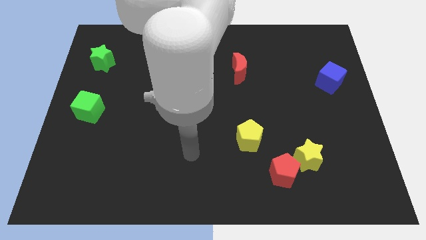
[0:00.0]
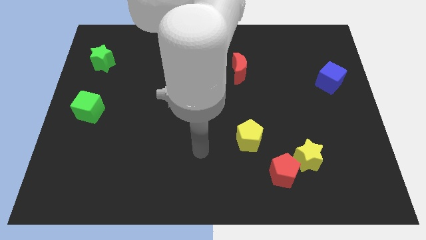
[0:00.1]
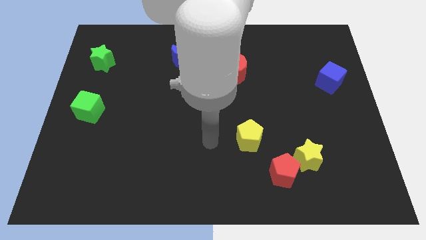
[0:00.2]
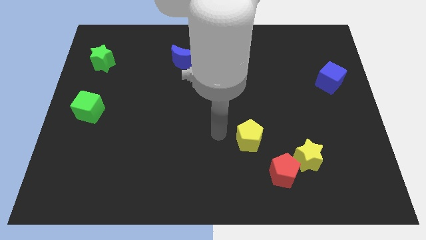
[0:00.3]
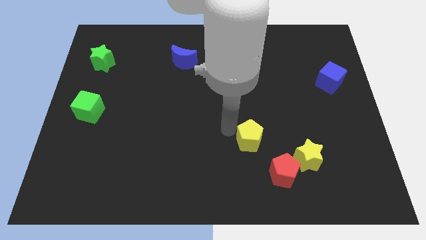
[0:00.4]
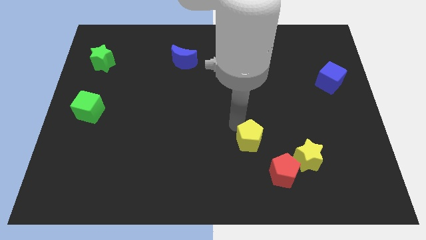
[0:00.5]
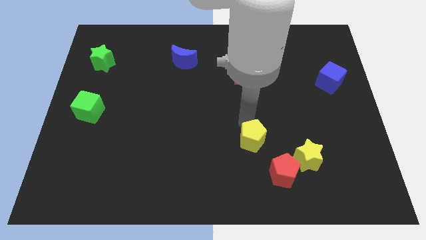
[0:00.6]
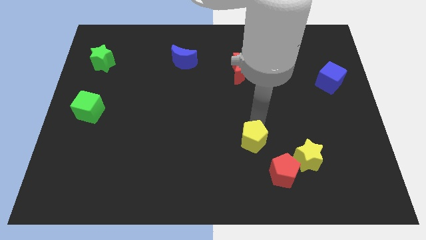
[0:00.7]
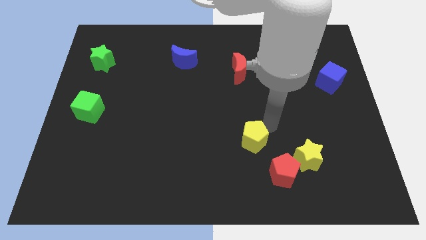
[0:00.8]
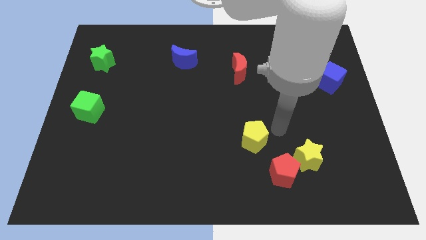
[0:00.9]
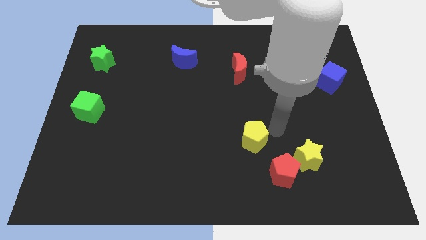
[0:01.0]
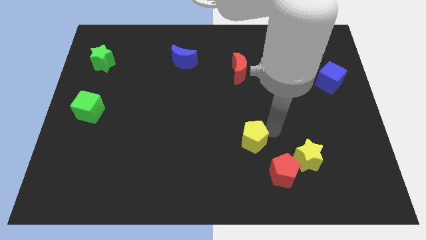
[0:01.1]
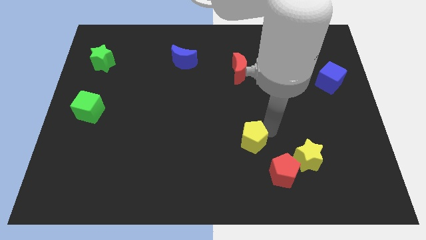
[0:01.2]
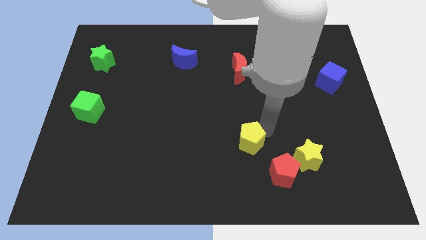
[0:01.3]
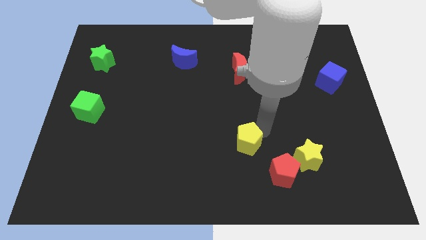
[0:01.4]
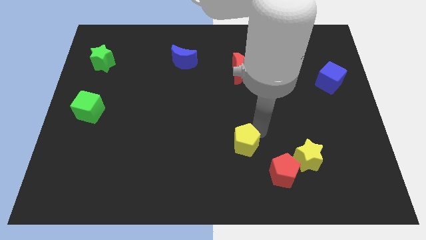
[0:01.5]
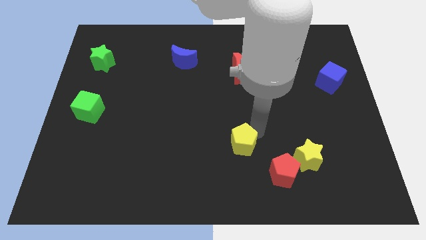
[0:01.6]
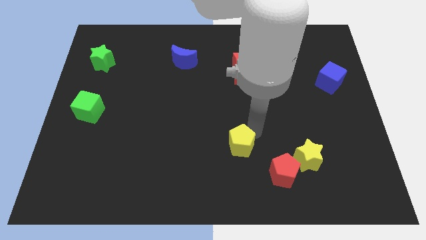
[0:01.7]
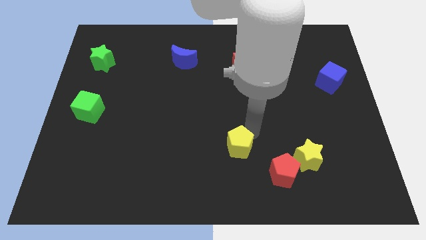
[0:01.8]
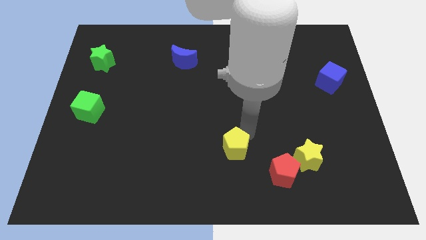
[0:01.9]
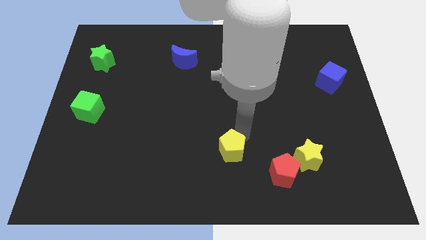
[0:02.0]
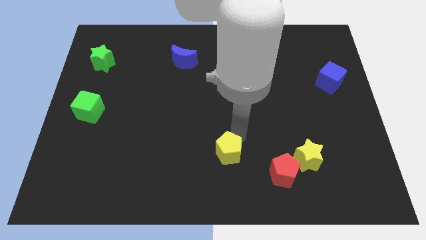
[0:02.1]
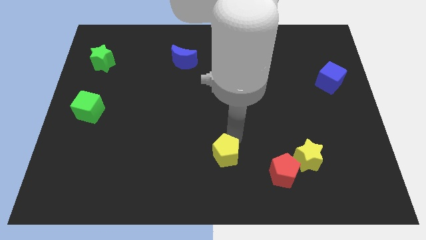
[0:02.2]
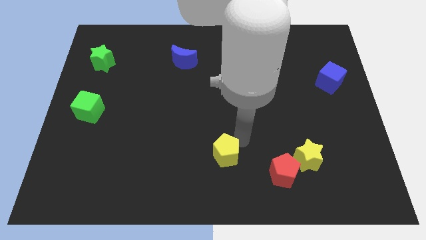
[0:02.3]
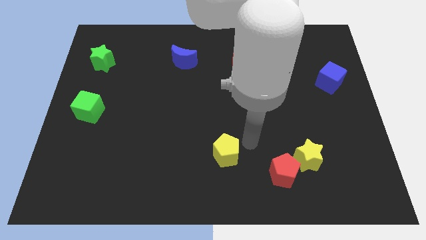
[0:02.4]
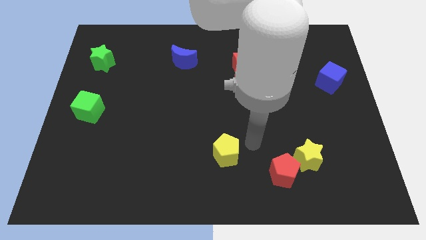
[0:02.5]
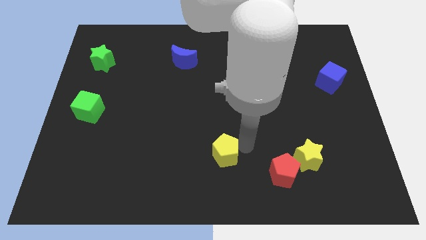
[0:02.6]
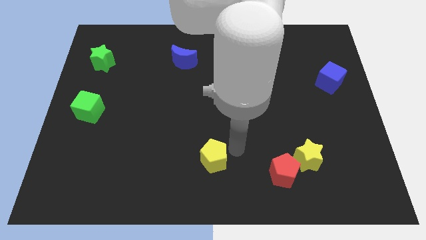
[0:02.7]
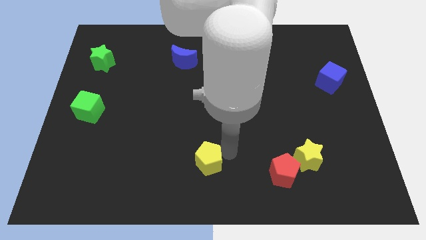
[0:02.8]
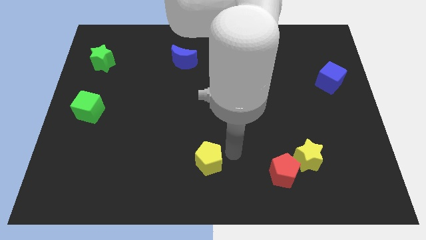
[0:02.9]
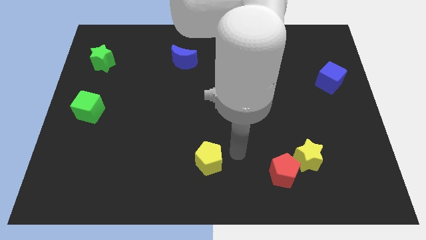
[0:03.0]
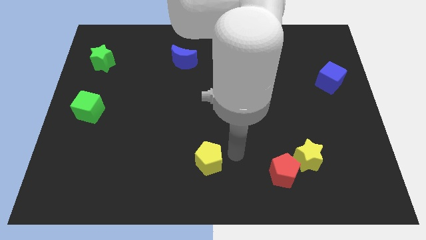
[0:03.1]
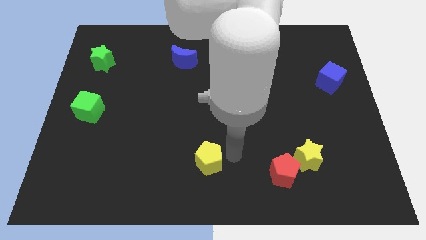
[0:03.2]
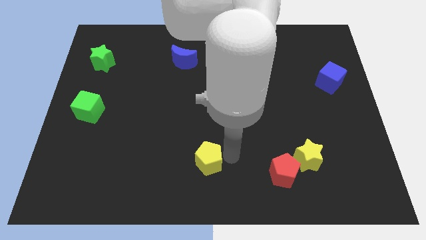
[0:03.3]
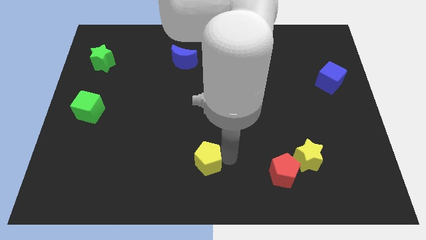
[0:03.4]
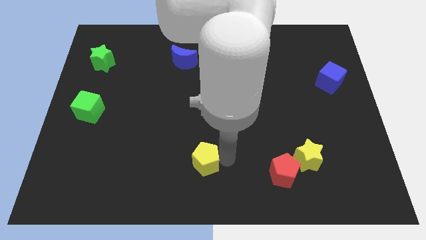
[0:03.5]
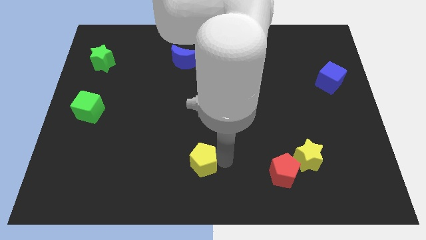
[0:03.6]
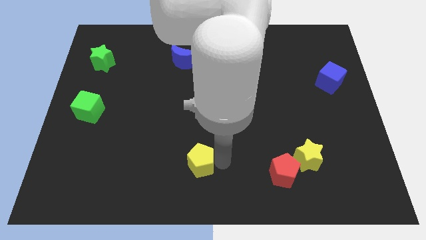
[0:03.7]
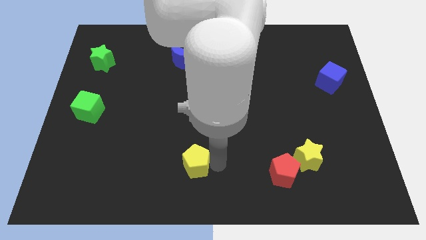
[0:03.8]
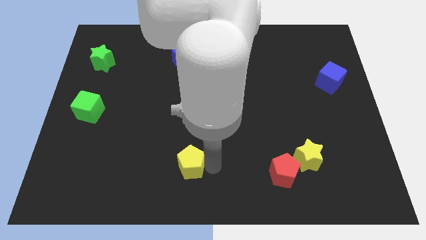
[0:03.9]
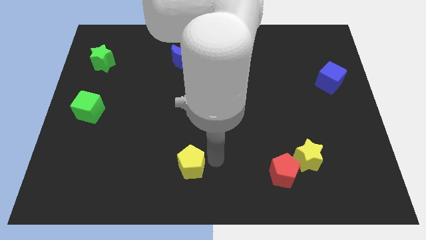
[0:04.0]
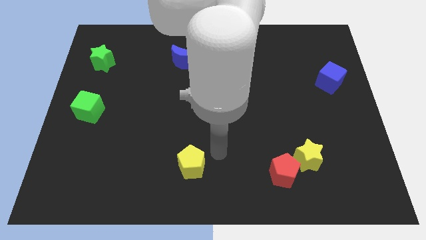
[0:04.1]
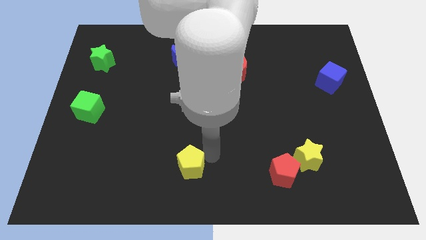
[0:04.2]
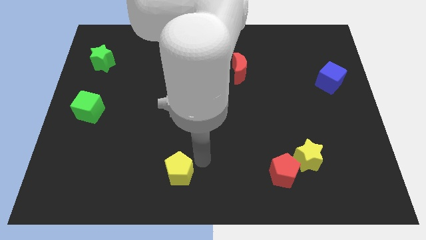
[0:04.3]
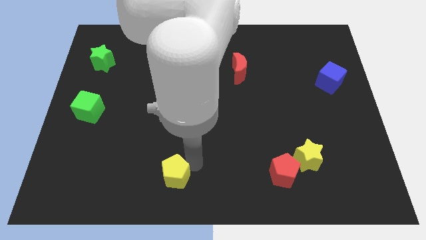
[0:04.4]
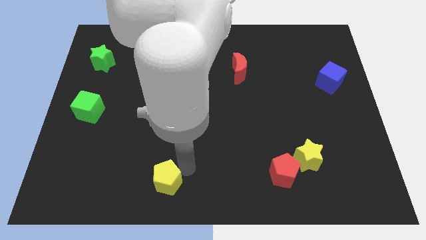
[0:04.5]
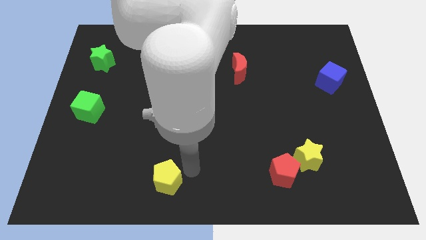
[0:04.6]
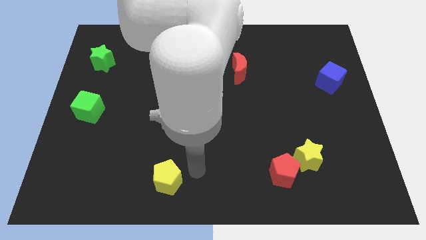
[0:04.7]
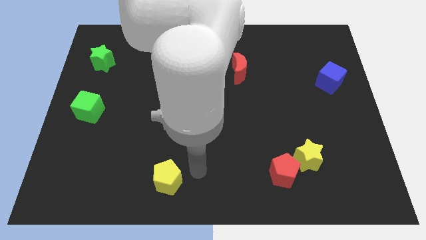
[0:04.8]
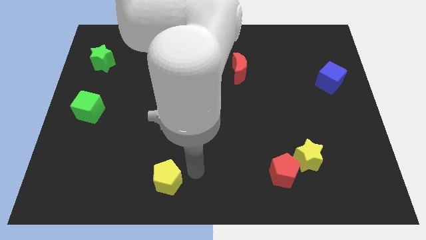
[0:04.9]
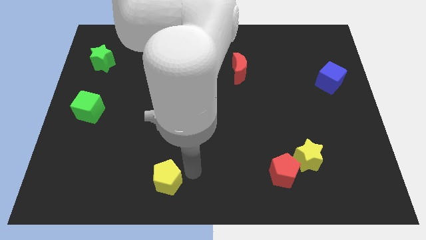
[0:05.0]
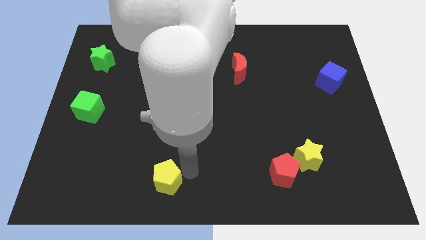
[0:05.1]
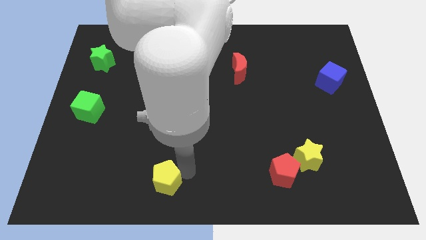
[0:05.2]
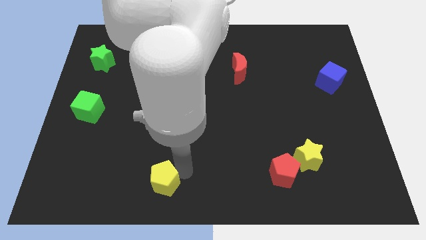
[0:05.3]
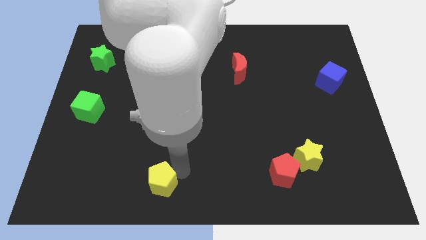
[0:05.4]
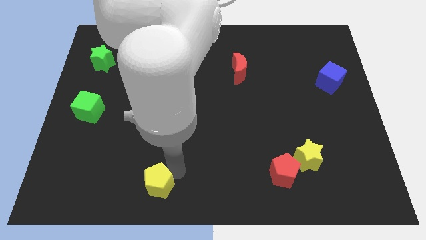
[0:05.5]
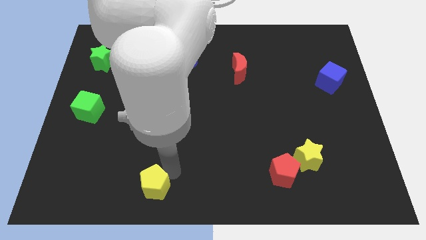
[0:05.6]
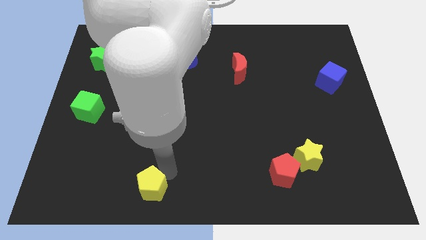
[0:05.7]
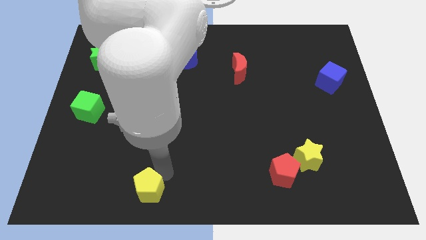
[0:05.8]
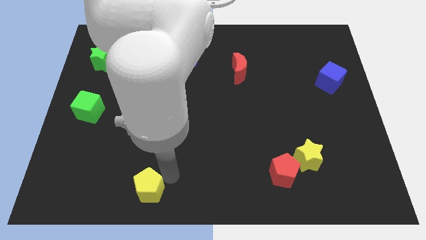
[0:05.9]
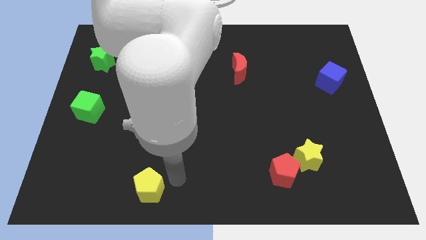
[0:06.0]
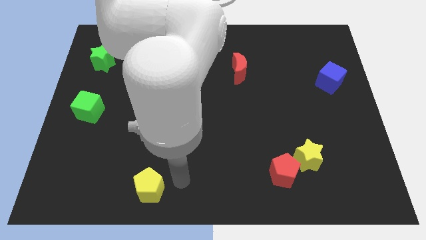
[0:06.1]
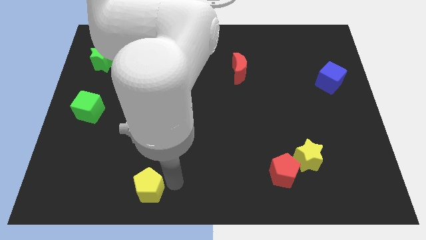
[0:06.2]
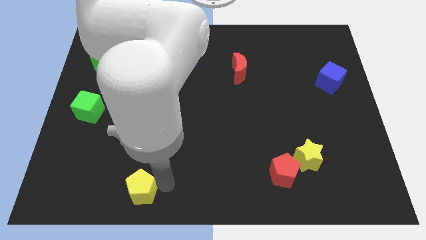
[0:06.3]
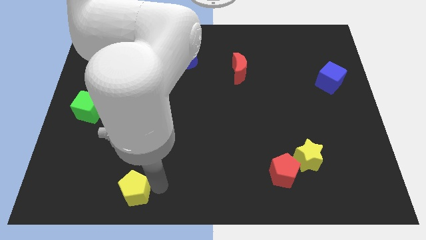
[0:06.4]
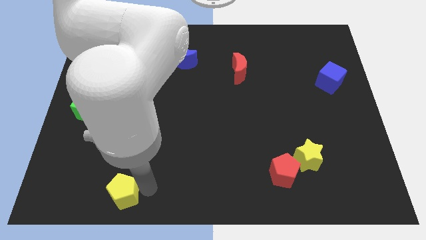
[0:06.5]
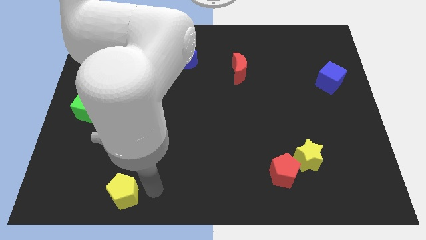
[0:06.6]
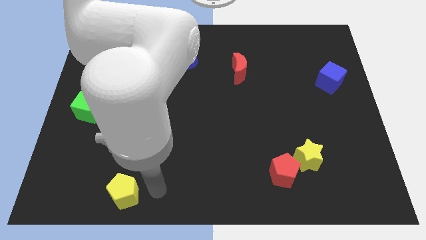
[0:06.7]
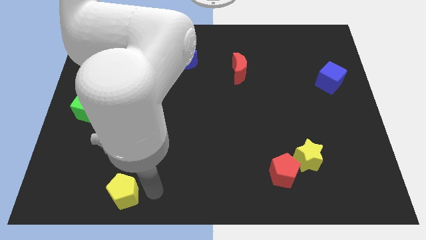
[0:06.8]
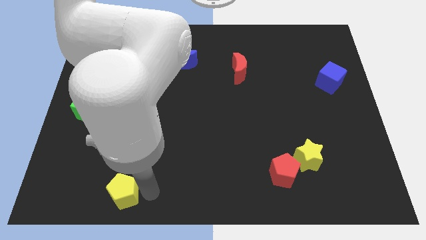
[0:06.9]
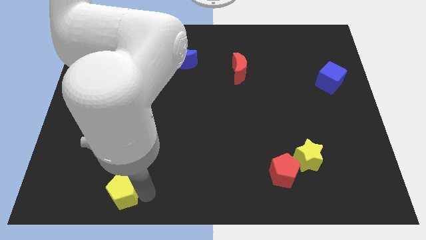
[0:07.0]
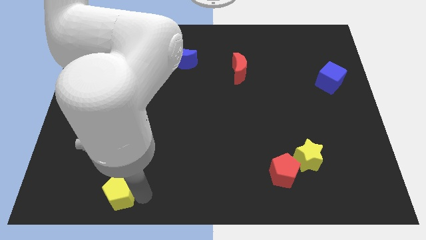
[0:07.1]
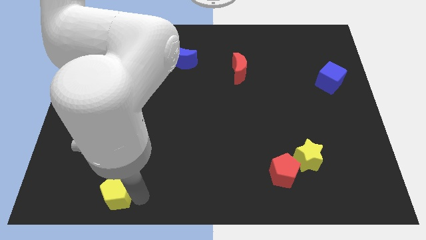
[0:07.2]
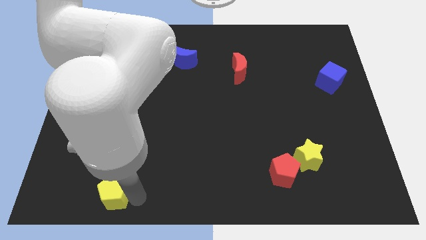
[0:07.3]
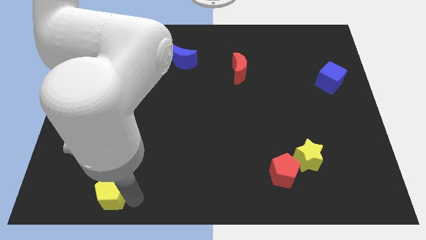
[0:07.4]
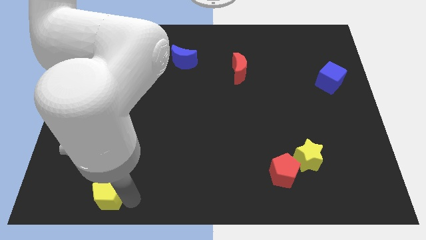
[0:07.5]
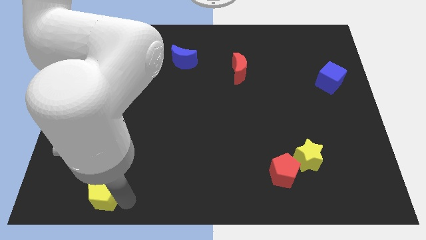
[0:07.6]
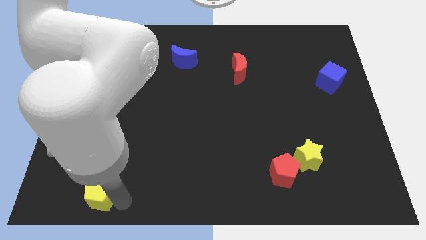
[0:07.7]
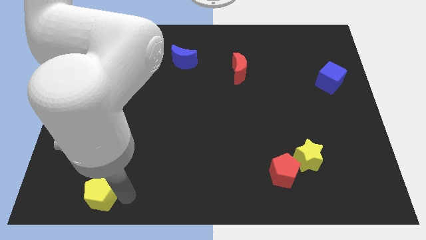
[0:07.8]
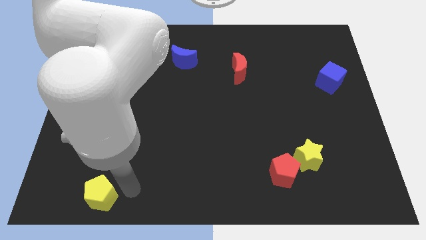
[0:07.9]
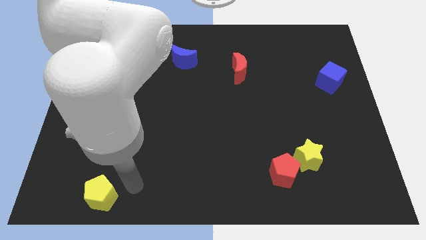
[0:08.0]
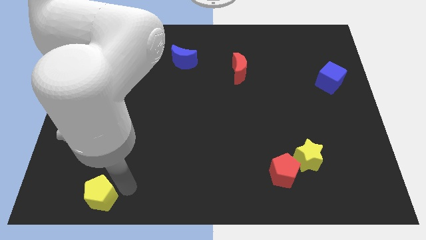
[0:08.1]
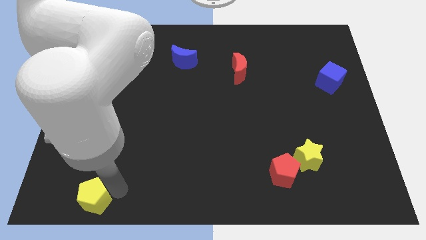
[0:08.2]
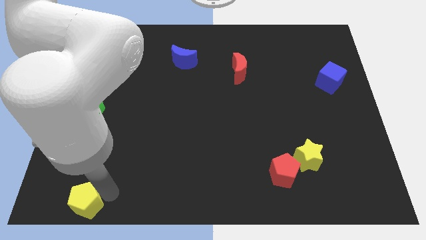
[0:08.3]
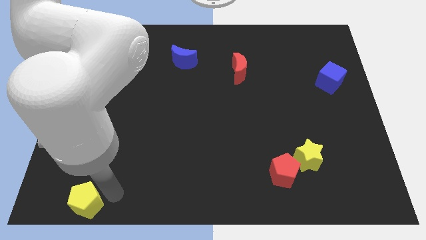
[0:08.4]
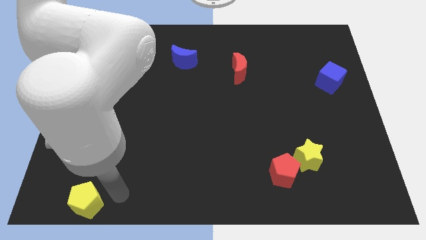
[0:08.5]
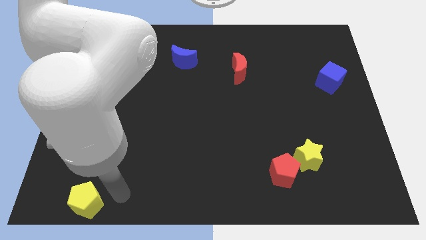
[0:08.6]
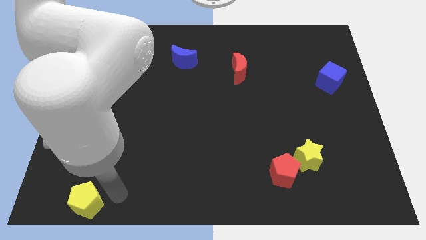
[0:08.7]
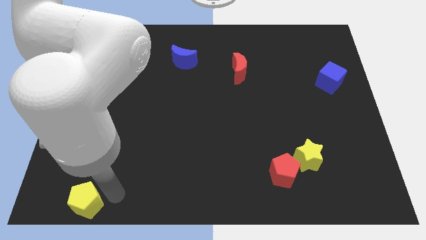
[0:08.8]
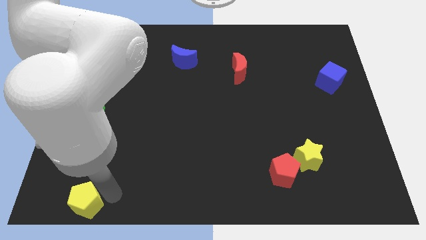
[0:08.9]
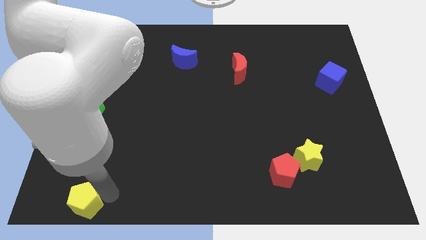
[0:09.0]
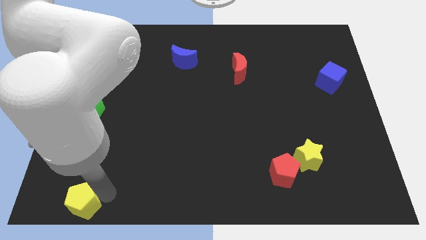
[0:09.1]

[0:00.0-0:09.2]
put the yellow pentagon to the bottom left corner
